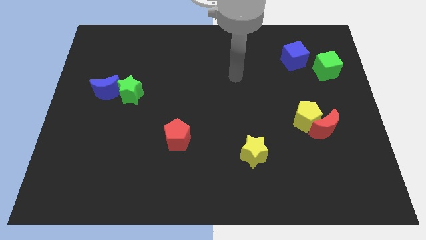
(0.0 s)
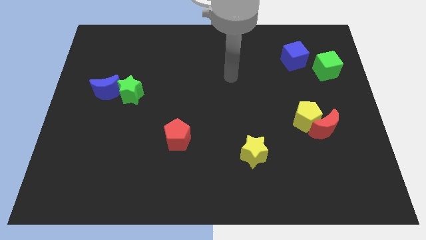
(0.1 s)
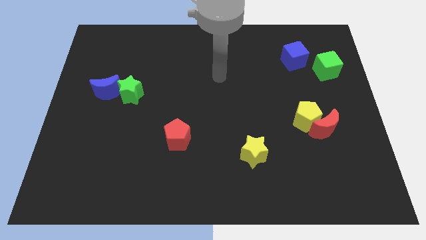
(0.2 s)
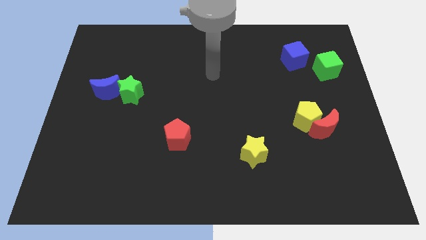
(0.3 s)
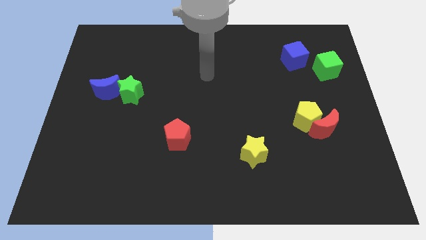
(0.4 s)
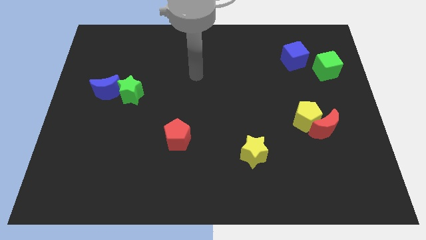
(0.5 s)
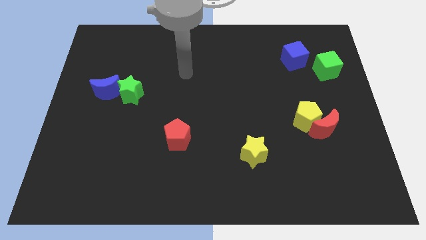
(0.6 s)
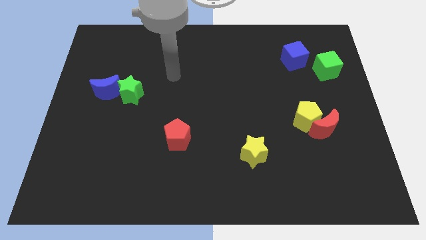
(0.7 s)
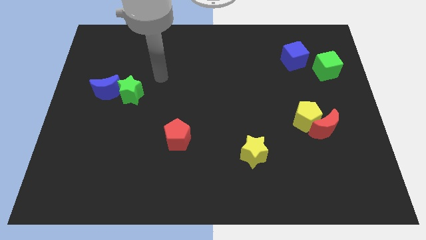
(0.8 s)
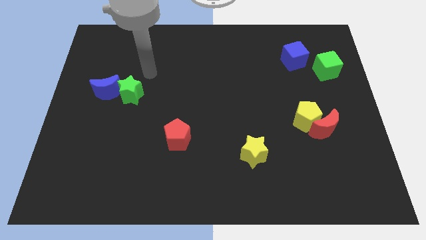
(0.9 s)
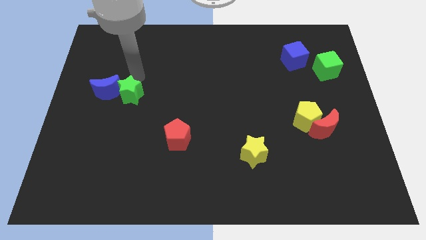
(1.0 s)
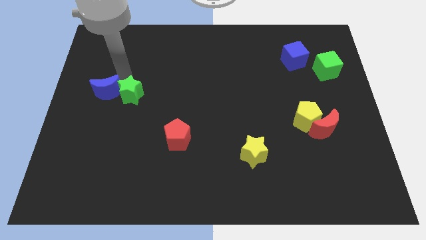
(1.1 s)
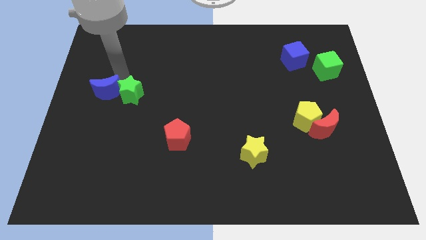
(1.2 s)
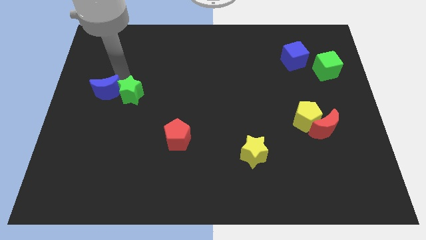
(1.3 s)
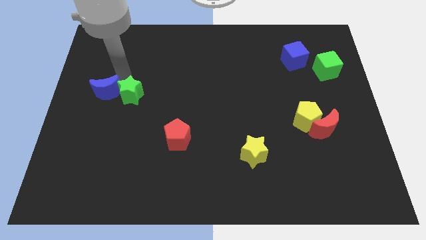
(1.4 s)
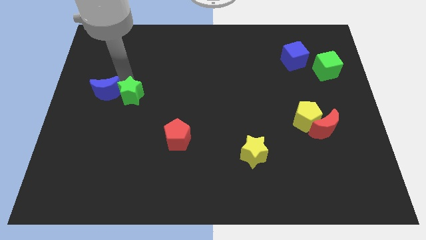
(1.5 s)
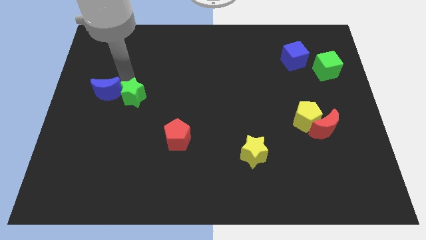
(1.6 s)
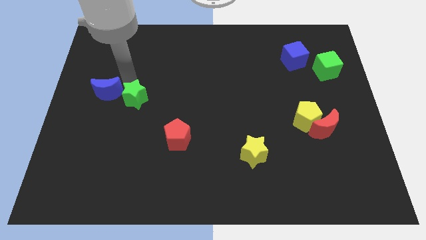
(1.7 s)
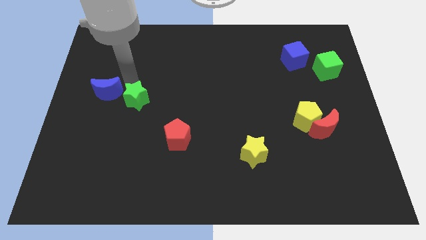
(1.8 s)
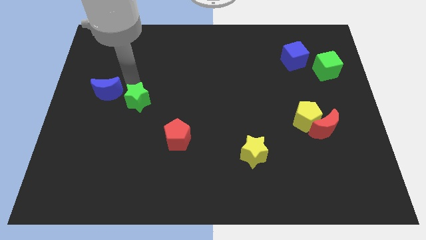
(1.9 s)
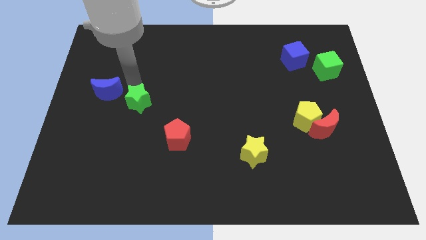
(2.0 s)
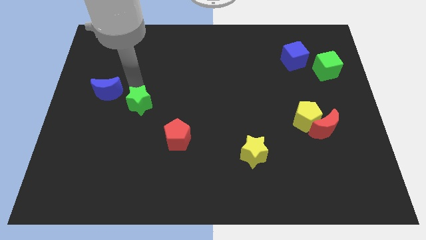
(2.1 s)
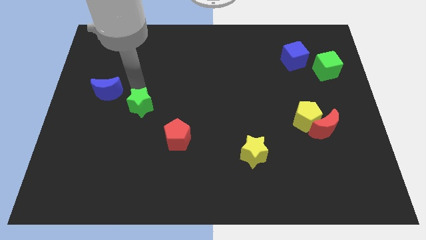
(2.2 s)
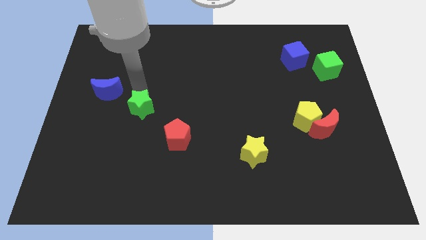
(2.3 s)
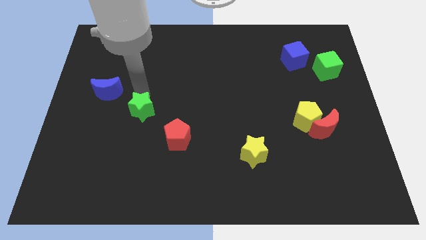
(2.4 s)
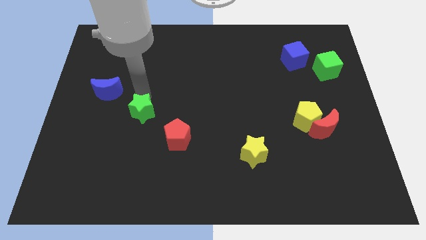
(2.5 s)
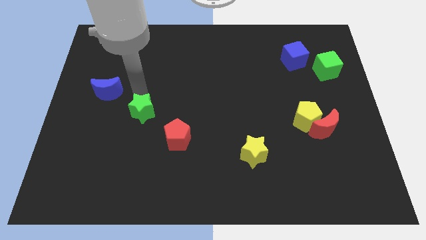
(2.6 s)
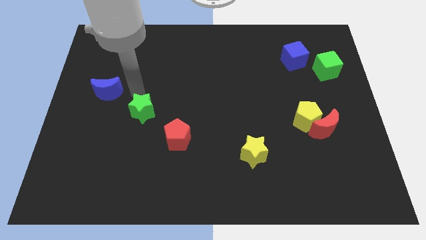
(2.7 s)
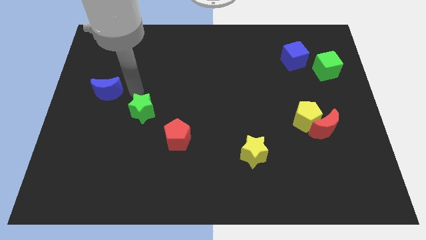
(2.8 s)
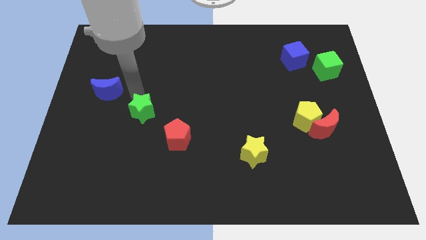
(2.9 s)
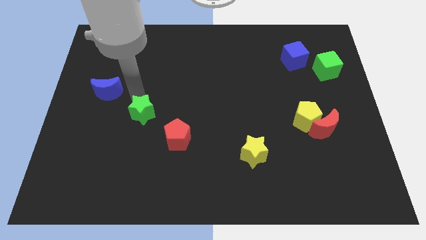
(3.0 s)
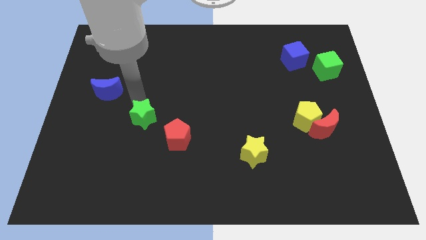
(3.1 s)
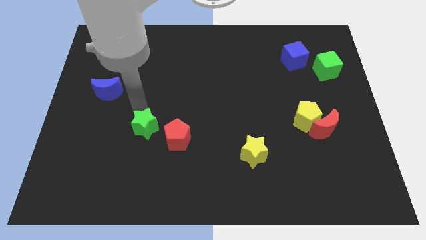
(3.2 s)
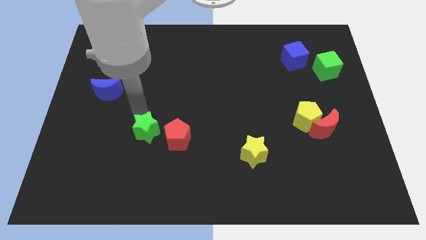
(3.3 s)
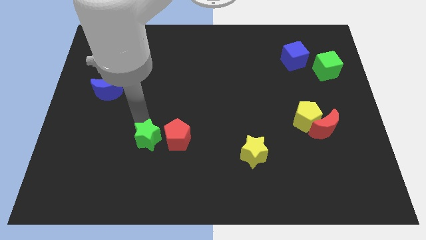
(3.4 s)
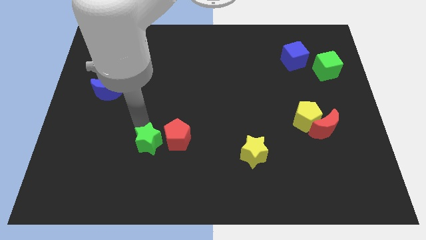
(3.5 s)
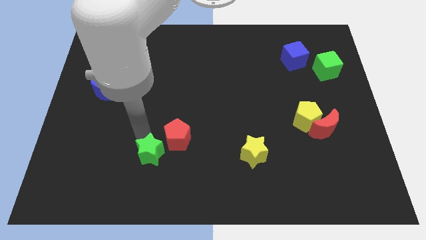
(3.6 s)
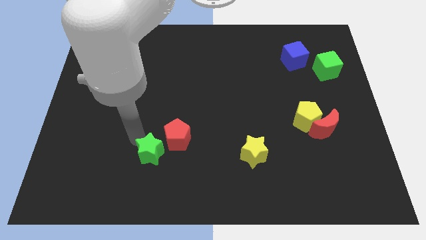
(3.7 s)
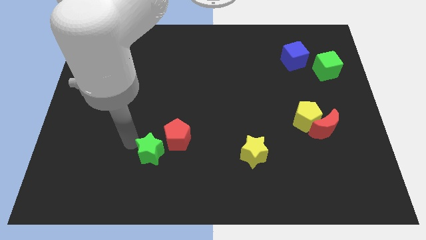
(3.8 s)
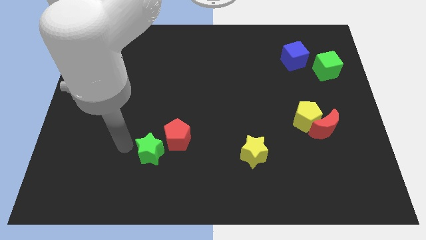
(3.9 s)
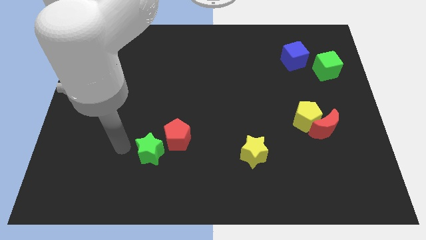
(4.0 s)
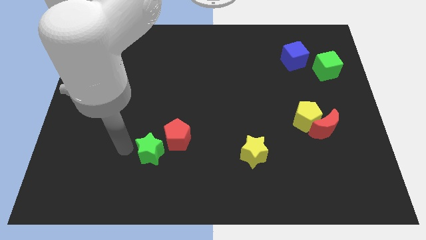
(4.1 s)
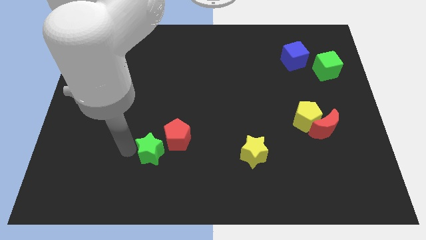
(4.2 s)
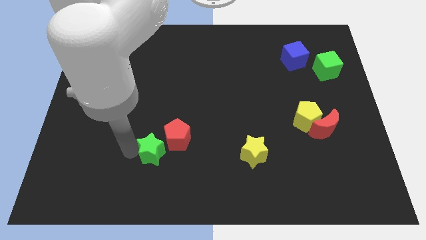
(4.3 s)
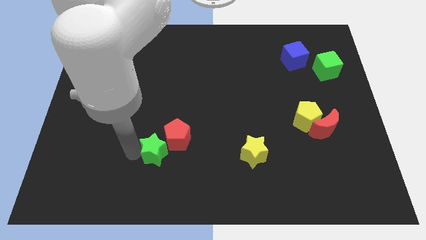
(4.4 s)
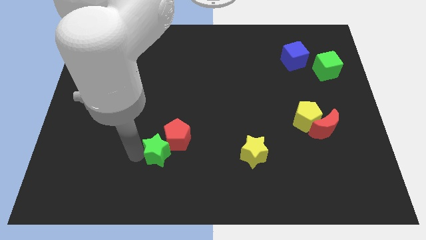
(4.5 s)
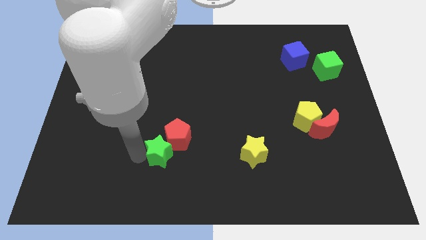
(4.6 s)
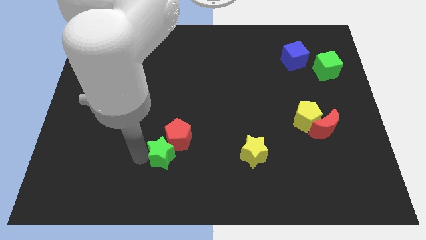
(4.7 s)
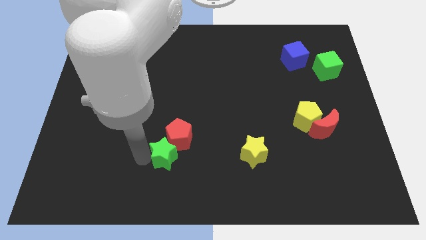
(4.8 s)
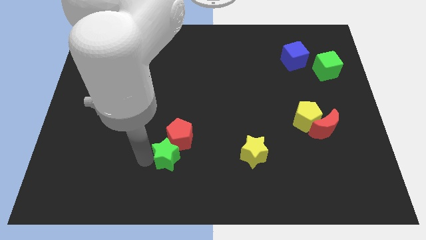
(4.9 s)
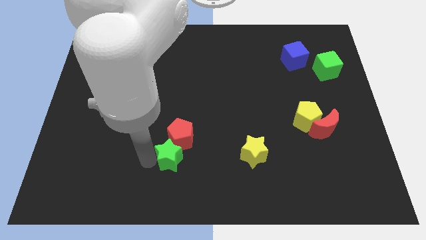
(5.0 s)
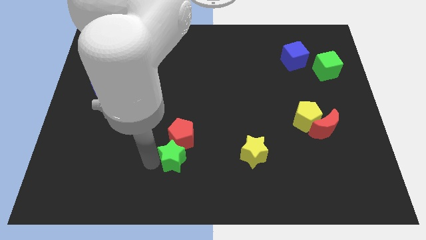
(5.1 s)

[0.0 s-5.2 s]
slide the green star down and to the right

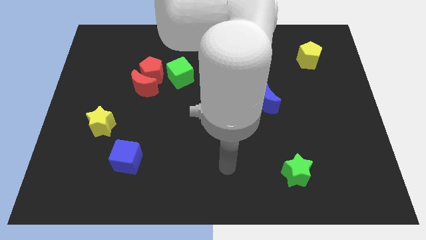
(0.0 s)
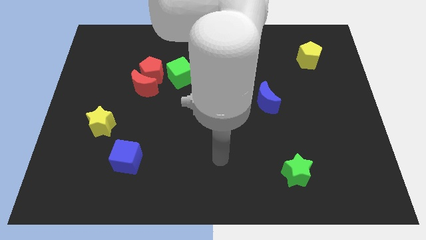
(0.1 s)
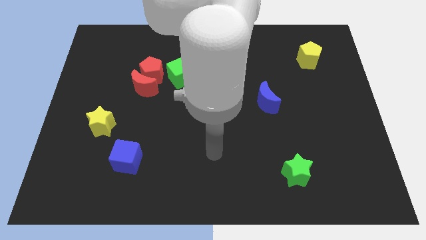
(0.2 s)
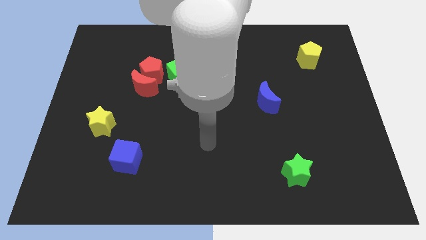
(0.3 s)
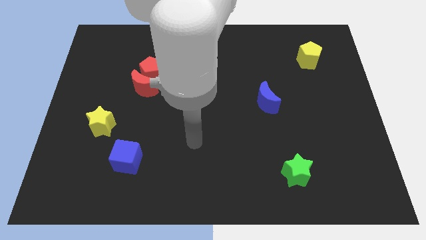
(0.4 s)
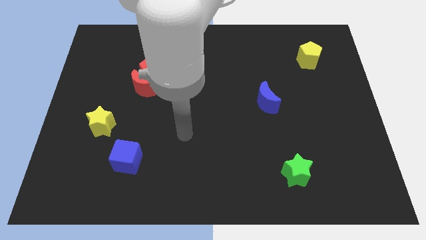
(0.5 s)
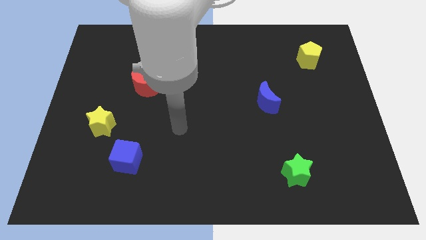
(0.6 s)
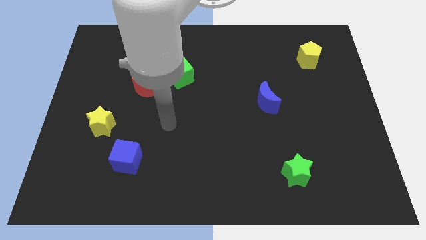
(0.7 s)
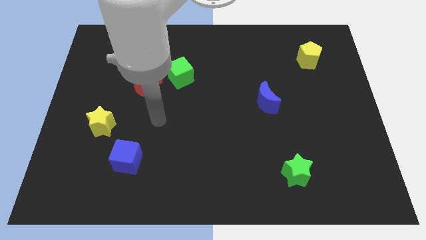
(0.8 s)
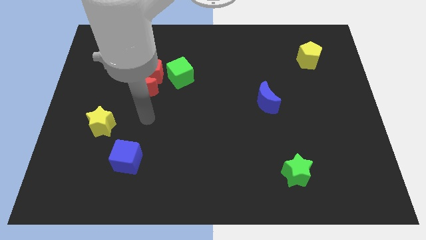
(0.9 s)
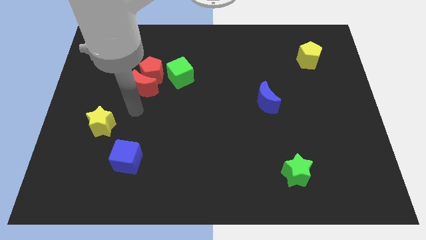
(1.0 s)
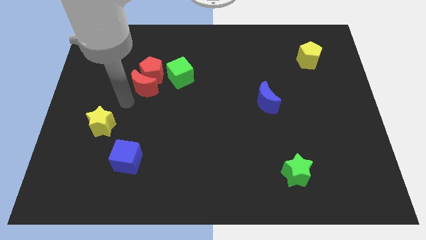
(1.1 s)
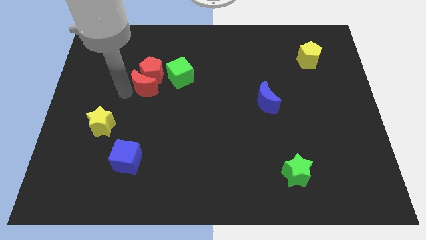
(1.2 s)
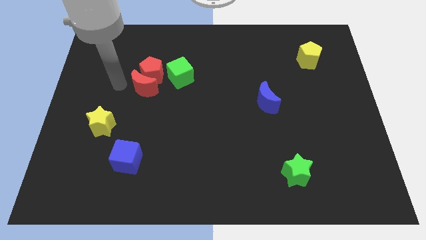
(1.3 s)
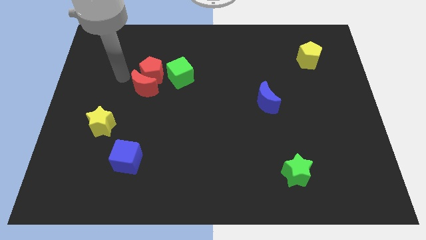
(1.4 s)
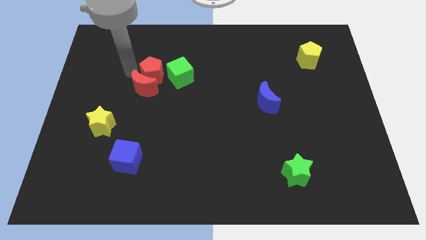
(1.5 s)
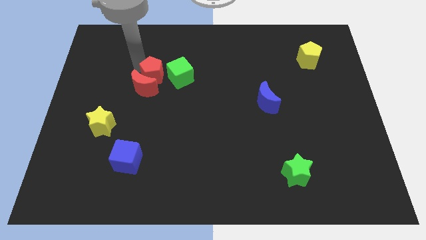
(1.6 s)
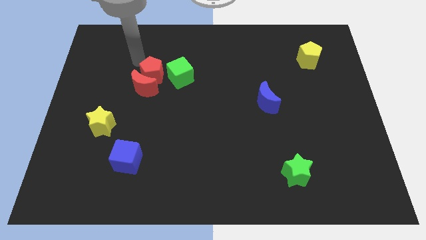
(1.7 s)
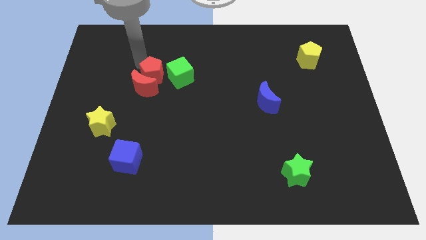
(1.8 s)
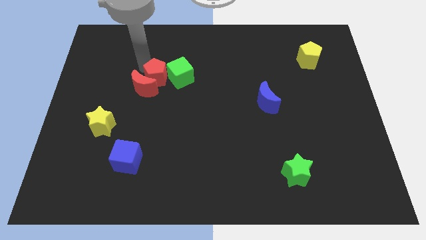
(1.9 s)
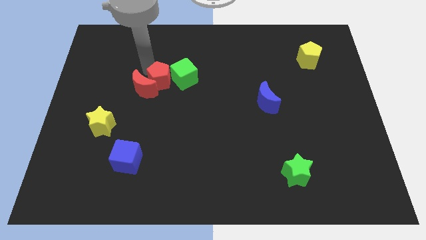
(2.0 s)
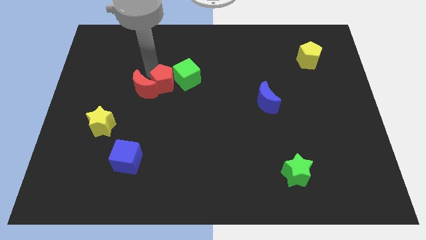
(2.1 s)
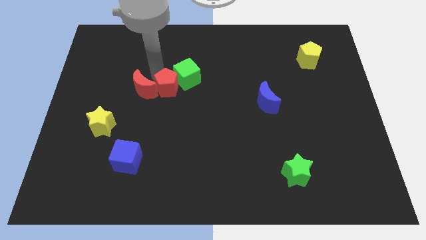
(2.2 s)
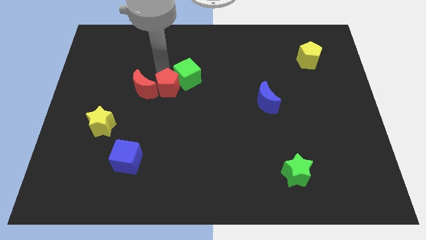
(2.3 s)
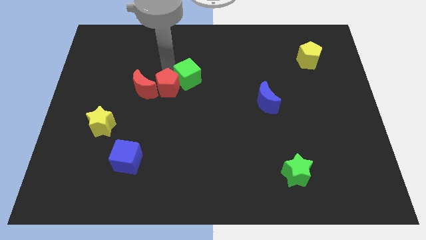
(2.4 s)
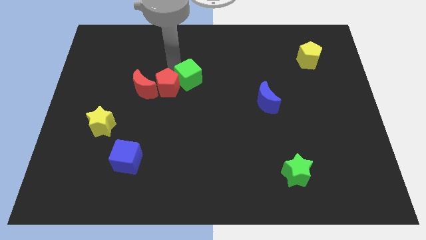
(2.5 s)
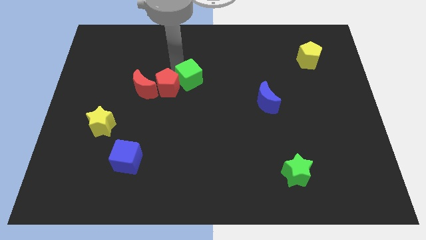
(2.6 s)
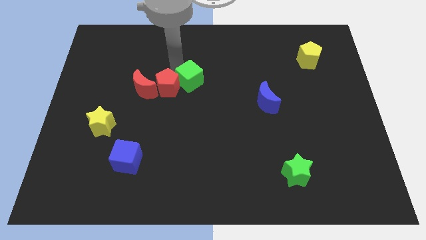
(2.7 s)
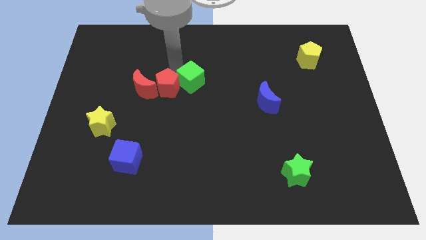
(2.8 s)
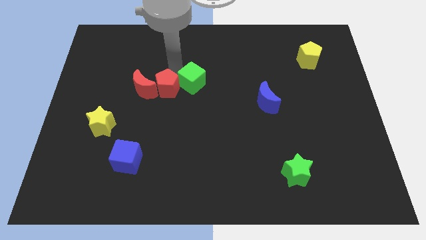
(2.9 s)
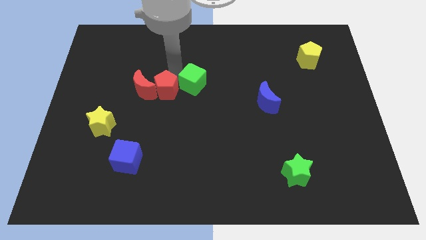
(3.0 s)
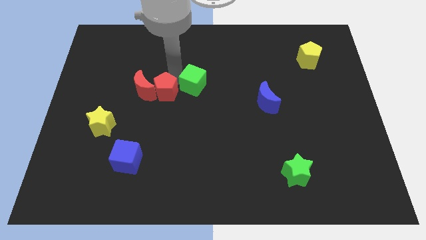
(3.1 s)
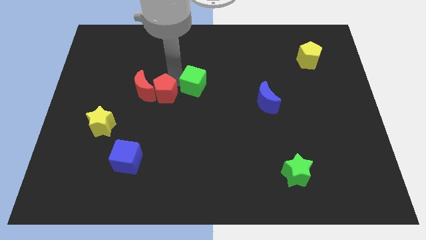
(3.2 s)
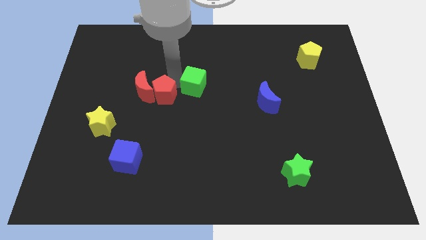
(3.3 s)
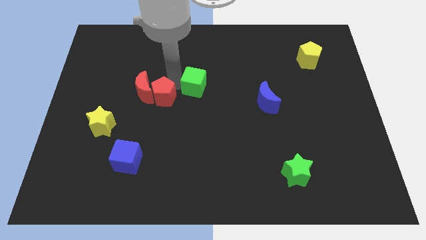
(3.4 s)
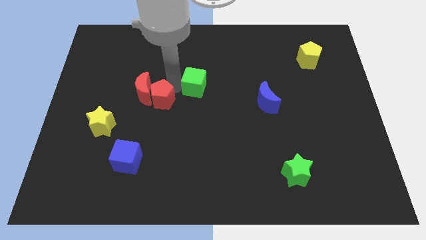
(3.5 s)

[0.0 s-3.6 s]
move the red pentagon a little down
